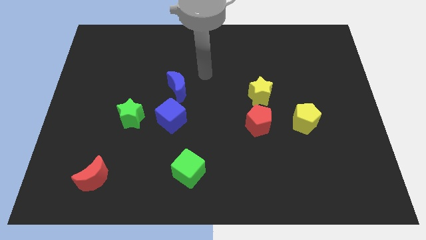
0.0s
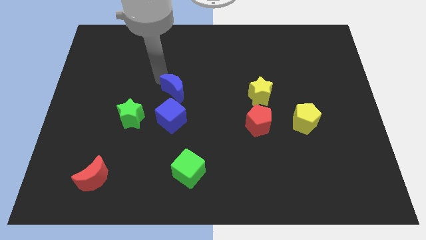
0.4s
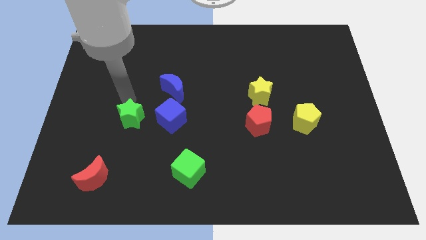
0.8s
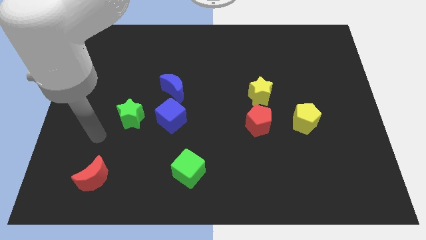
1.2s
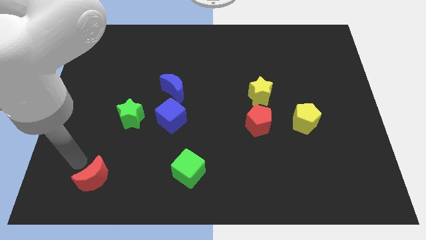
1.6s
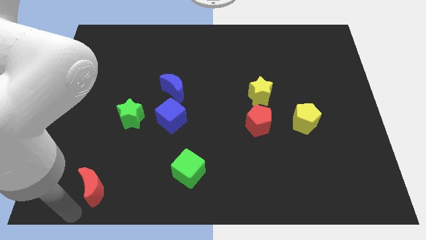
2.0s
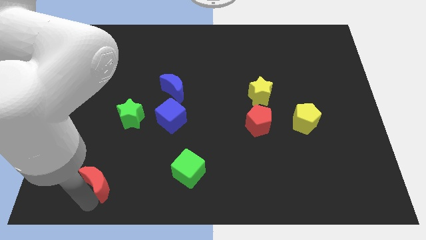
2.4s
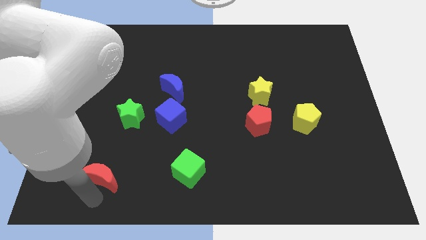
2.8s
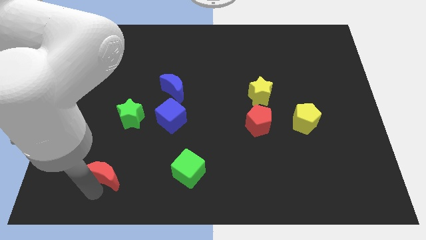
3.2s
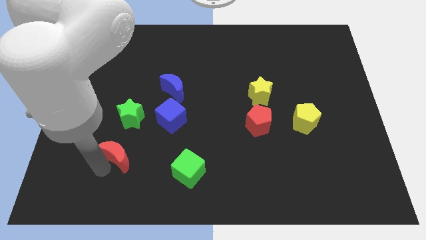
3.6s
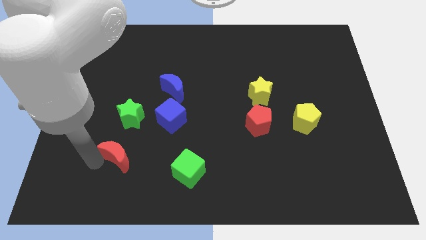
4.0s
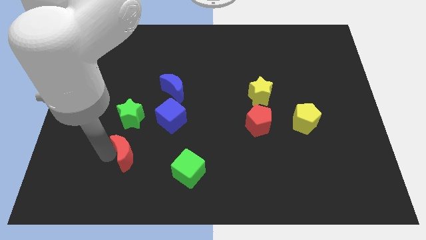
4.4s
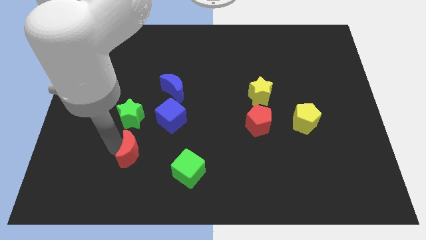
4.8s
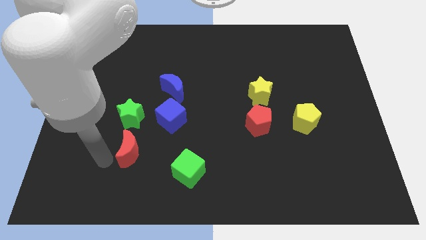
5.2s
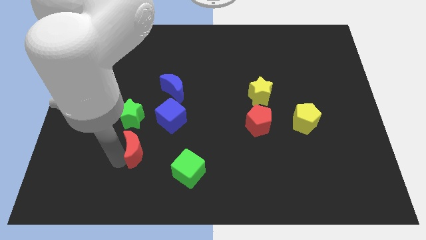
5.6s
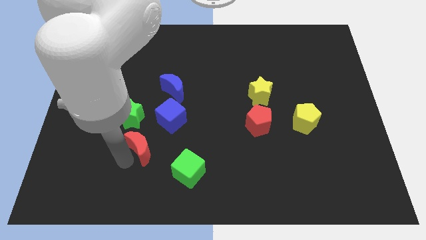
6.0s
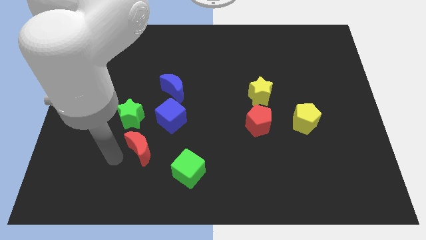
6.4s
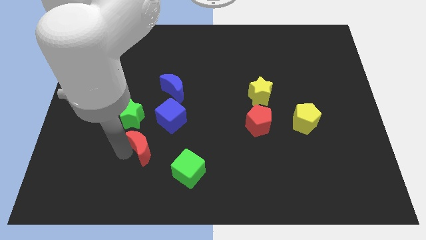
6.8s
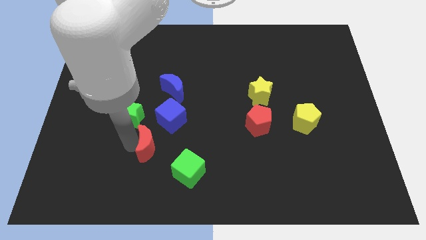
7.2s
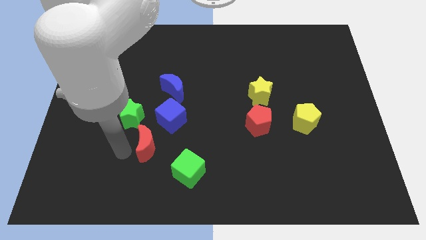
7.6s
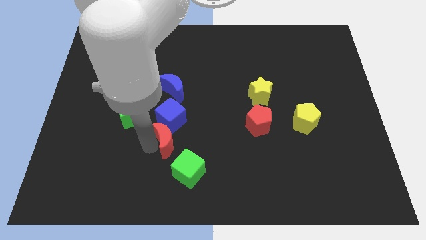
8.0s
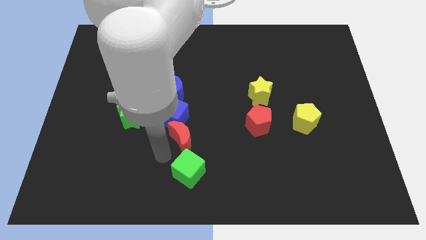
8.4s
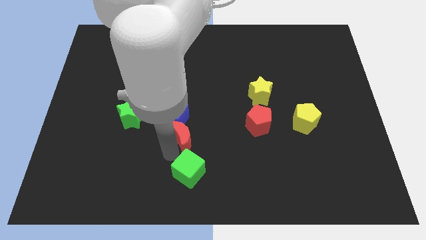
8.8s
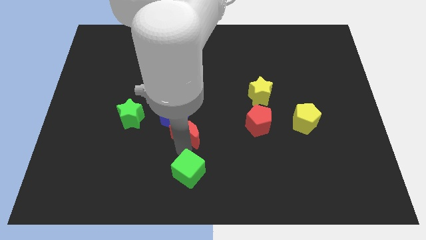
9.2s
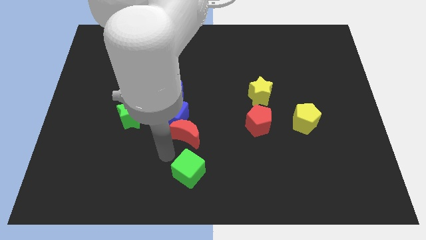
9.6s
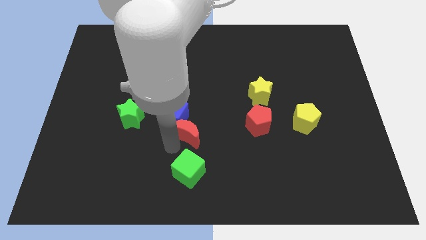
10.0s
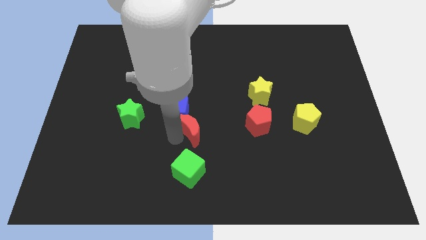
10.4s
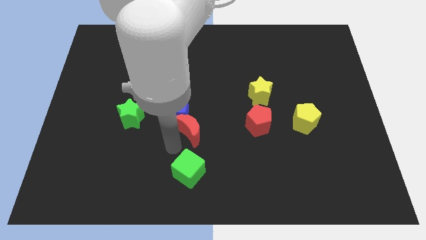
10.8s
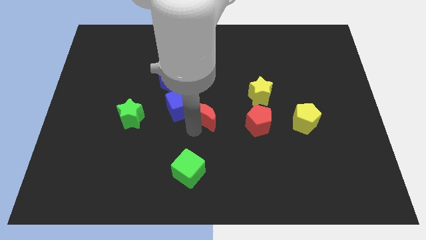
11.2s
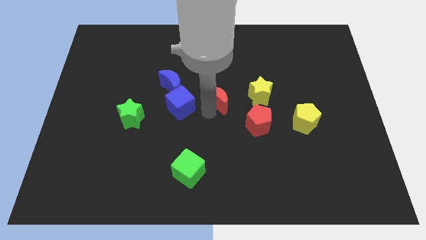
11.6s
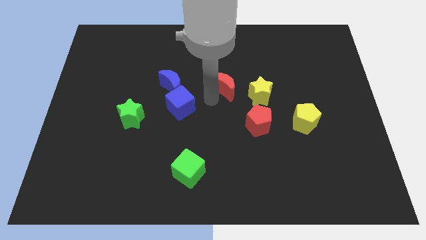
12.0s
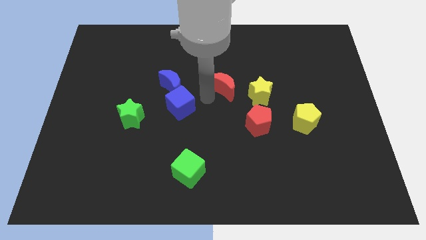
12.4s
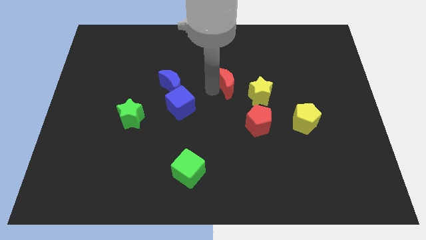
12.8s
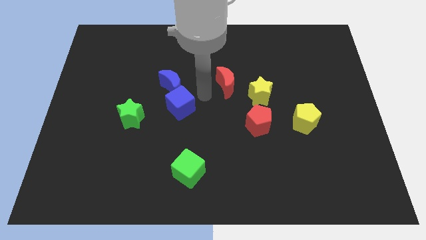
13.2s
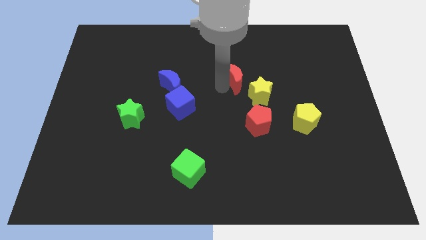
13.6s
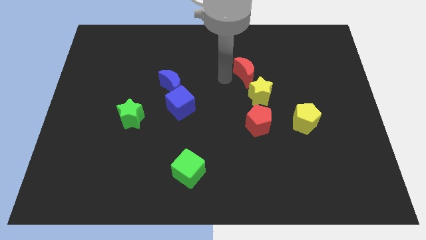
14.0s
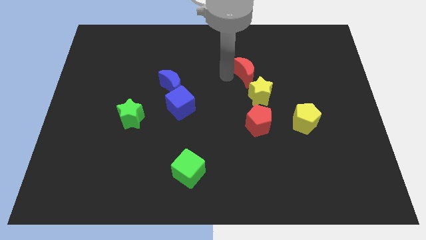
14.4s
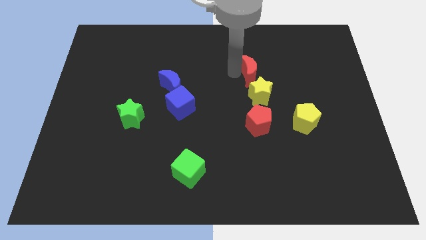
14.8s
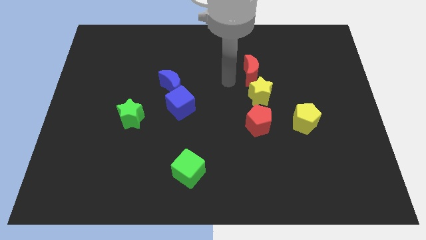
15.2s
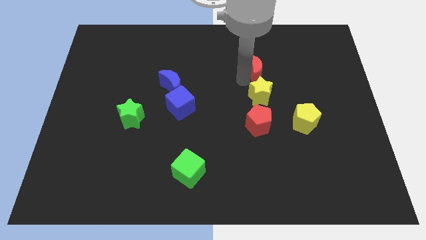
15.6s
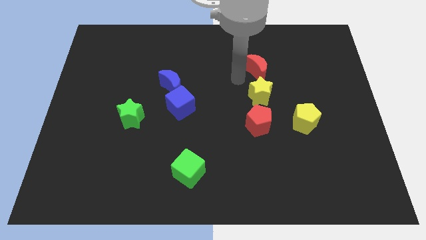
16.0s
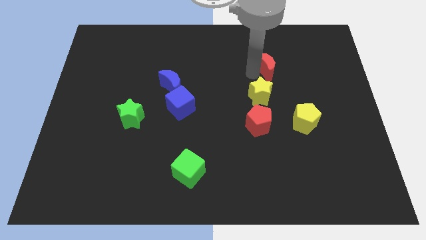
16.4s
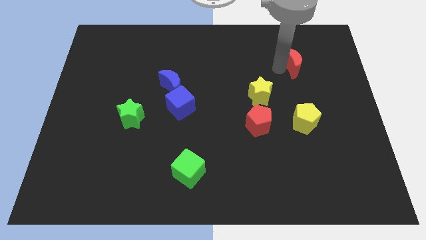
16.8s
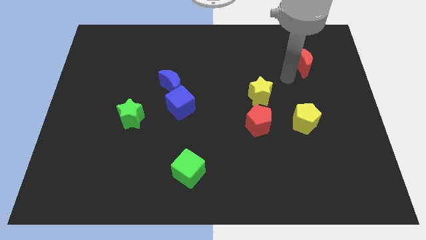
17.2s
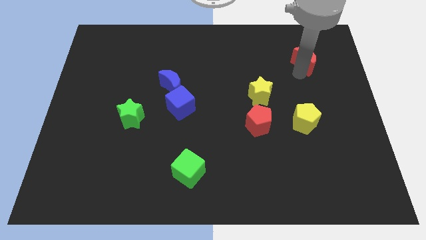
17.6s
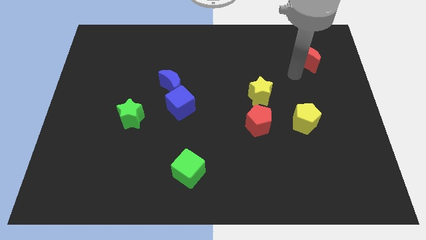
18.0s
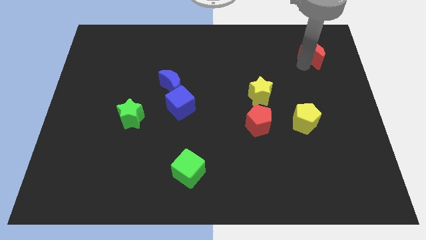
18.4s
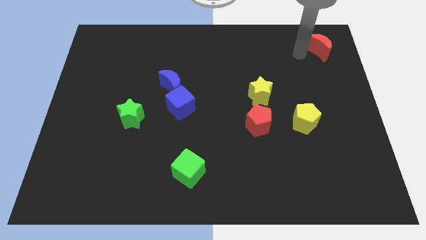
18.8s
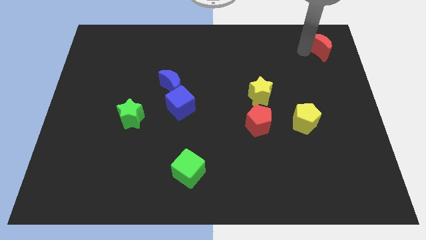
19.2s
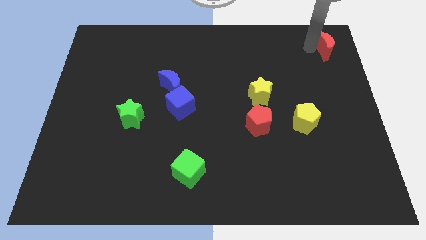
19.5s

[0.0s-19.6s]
slide the red moon to the upper right corner

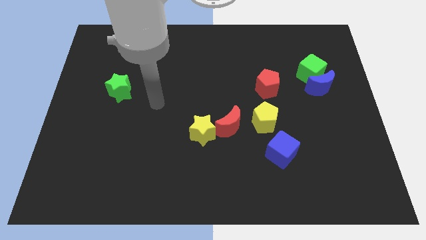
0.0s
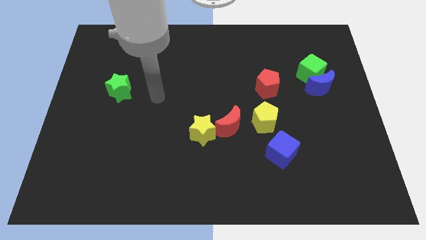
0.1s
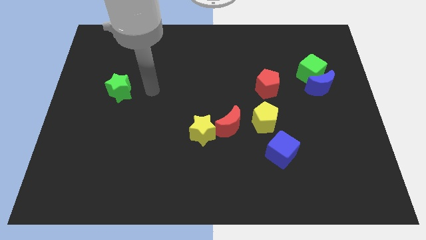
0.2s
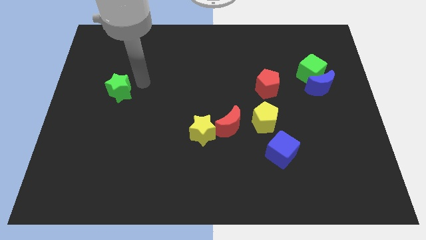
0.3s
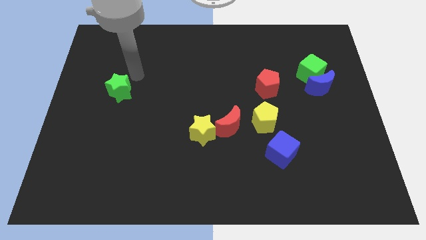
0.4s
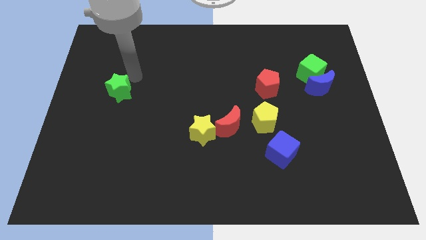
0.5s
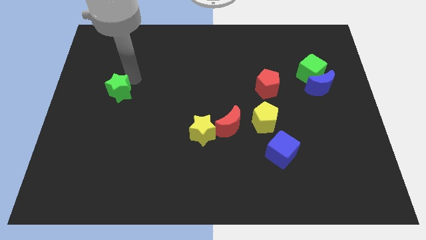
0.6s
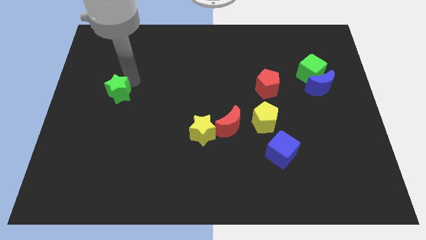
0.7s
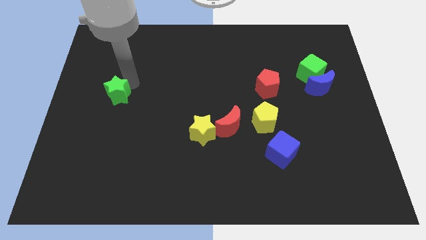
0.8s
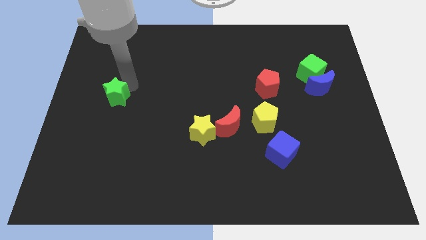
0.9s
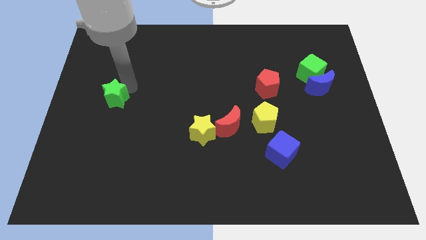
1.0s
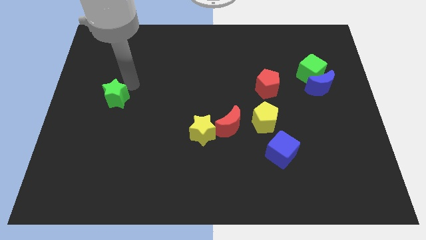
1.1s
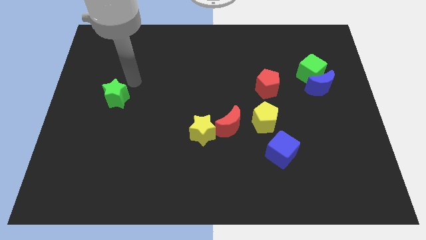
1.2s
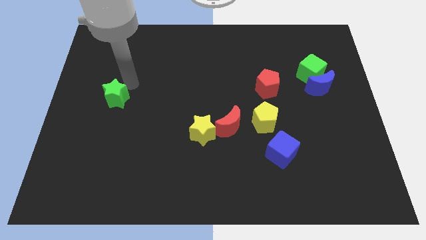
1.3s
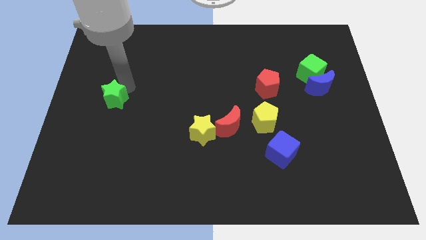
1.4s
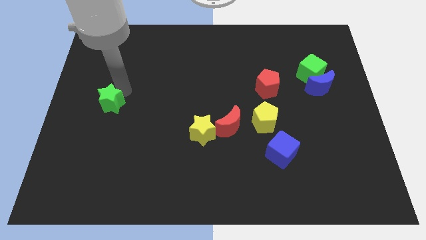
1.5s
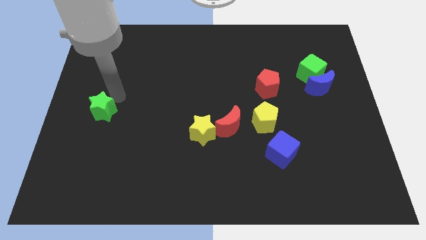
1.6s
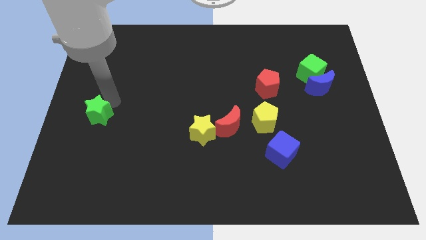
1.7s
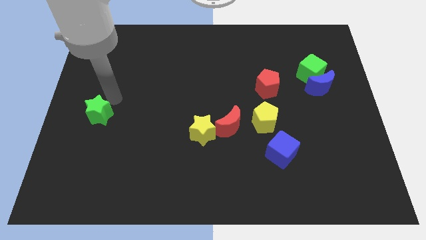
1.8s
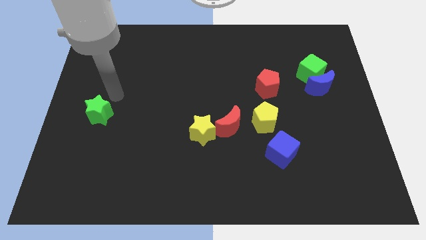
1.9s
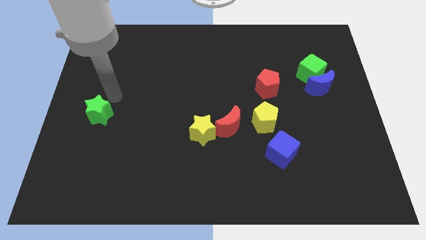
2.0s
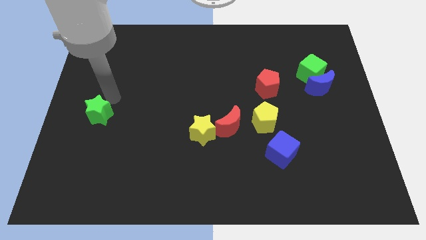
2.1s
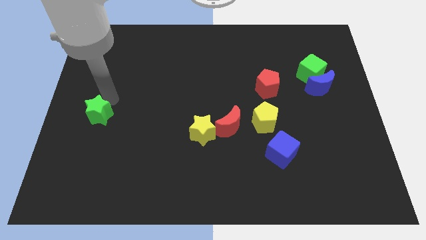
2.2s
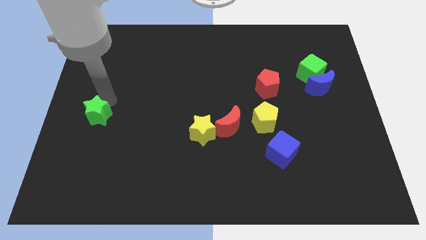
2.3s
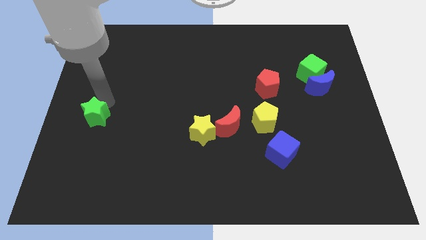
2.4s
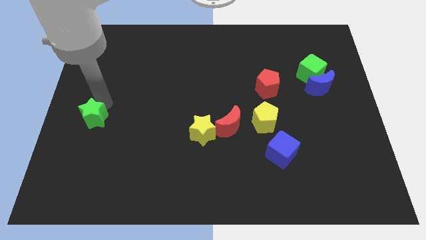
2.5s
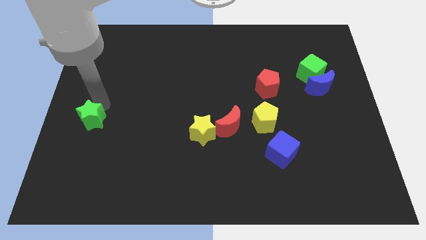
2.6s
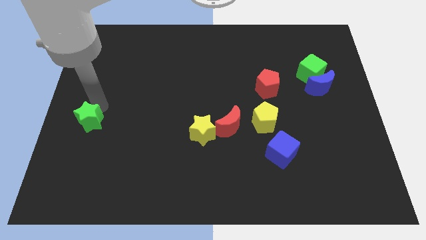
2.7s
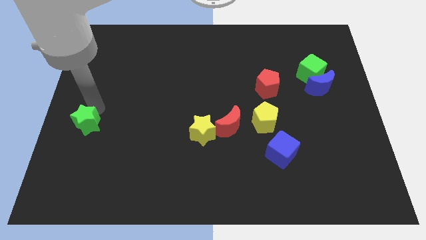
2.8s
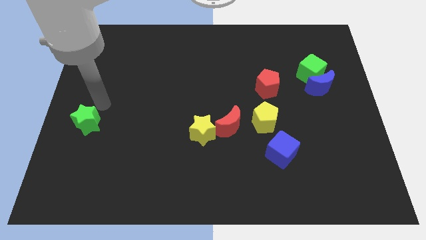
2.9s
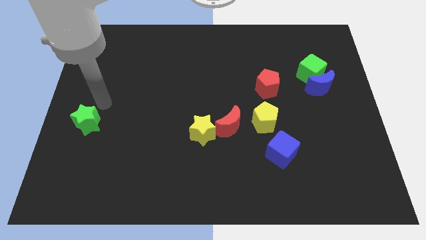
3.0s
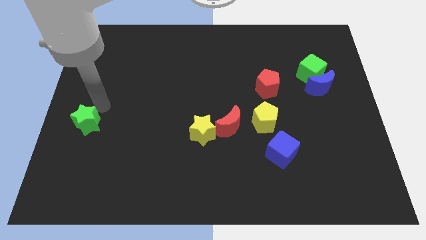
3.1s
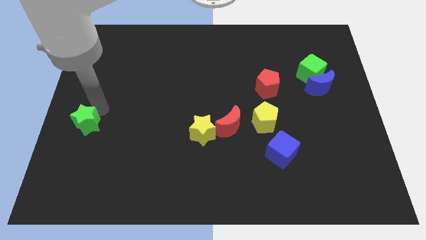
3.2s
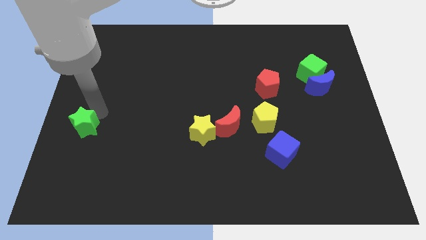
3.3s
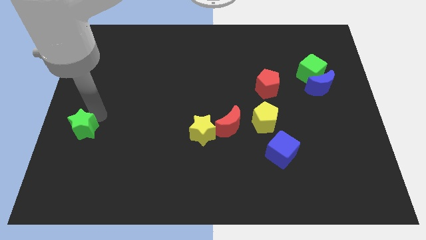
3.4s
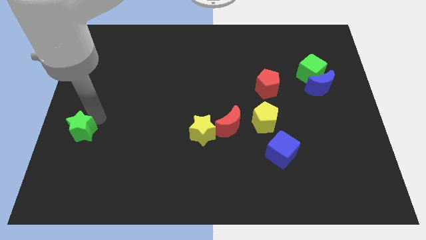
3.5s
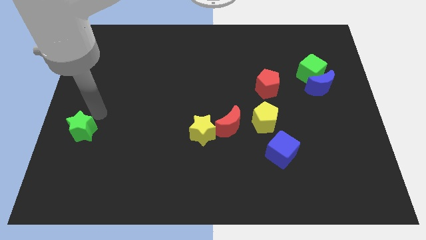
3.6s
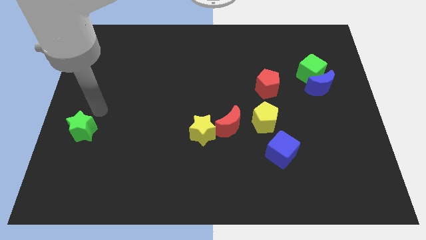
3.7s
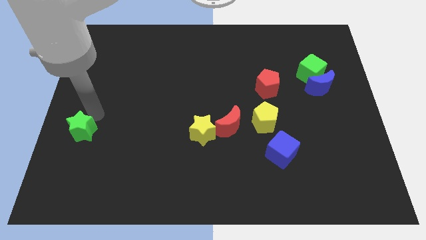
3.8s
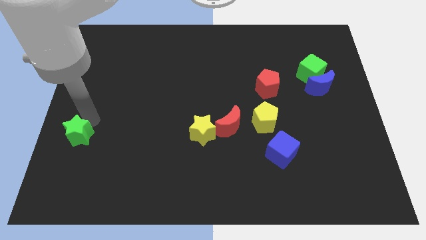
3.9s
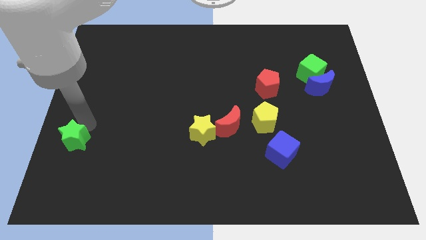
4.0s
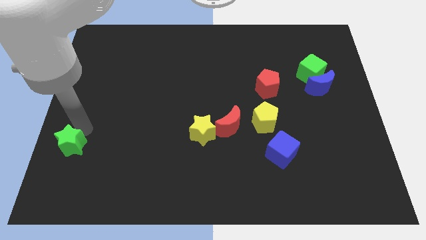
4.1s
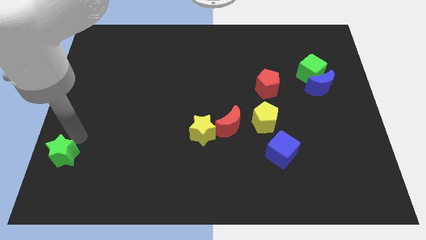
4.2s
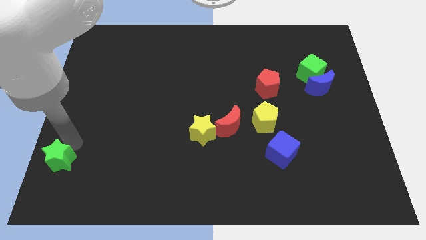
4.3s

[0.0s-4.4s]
put the green star to the bottom left
